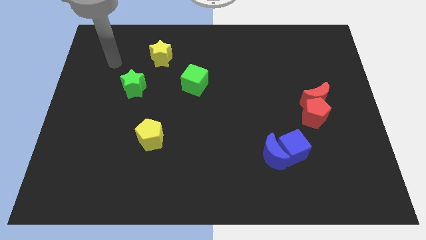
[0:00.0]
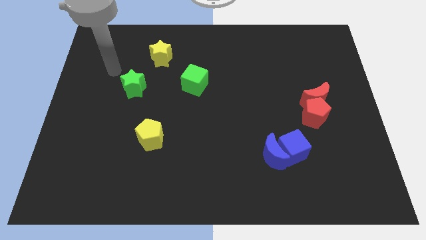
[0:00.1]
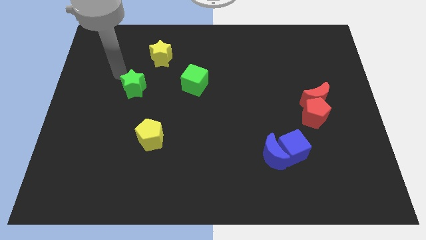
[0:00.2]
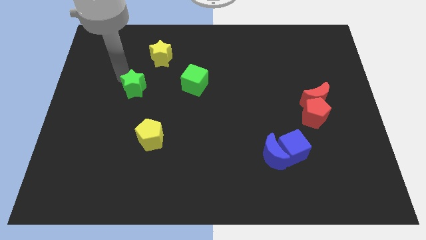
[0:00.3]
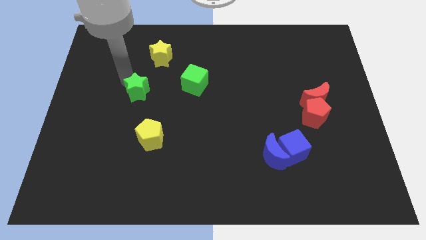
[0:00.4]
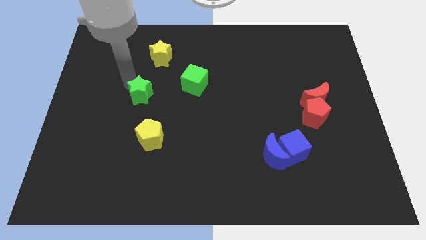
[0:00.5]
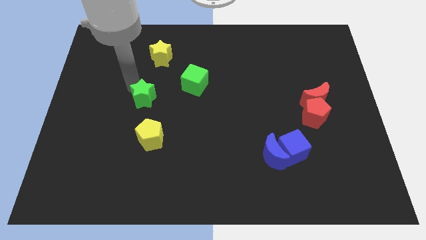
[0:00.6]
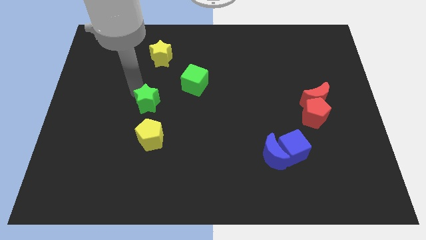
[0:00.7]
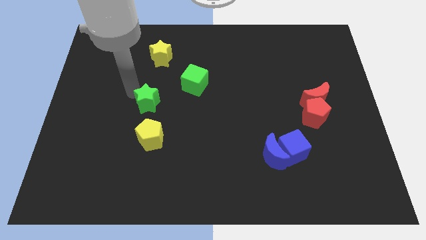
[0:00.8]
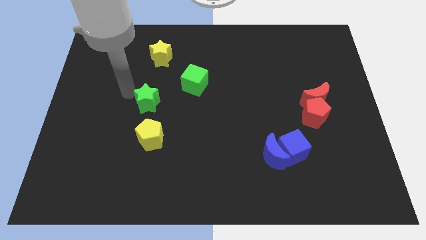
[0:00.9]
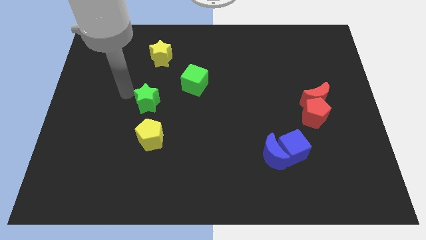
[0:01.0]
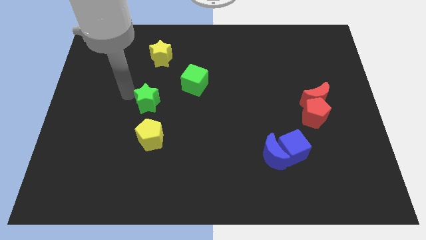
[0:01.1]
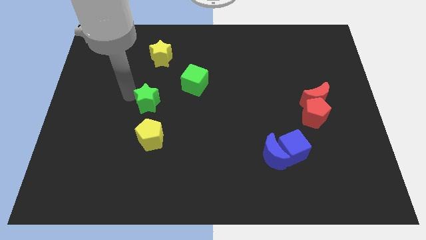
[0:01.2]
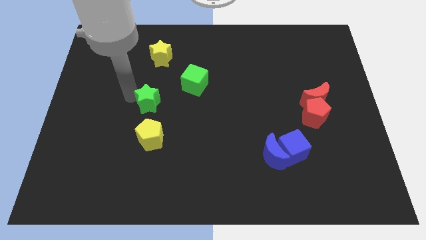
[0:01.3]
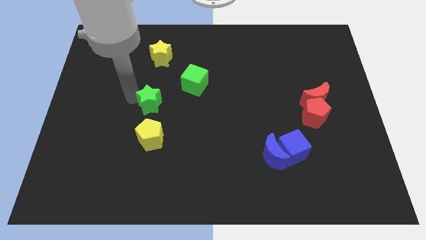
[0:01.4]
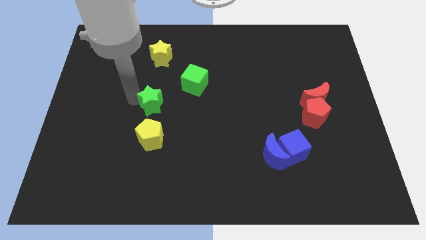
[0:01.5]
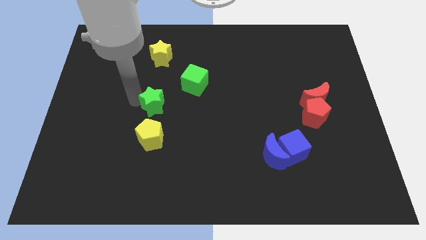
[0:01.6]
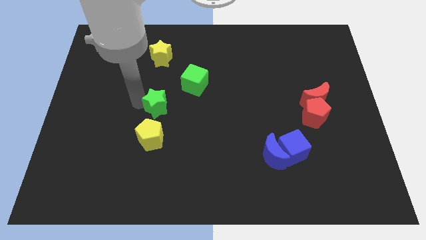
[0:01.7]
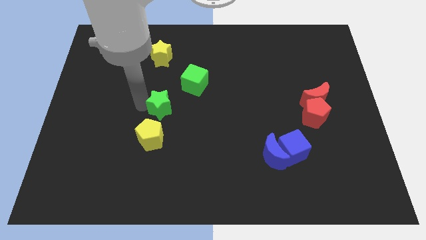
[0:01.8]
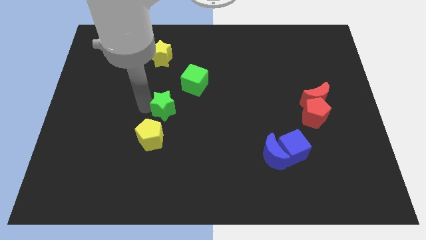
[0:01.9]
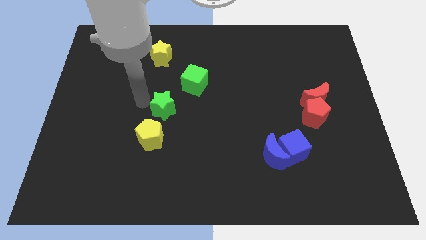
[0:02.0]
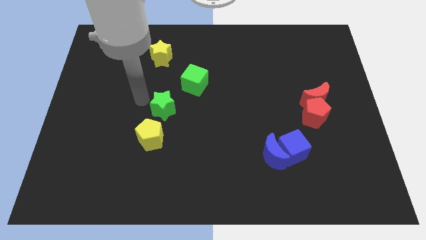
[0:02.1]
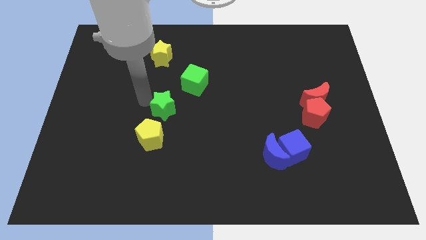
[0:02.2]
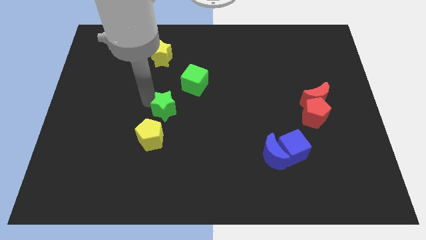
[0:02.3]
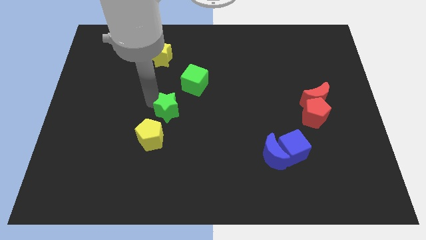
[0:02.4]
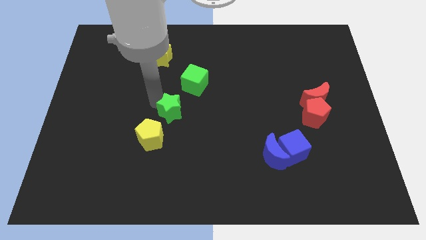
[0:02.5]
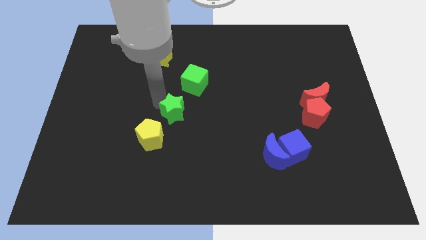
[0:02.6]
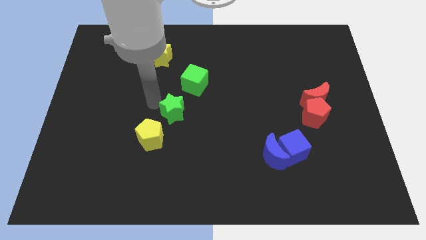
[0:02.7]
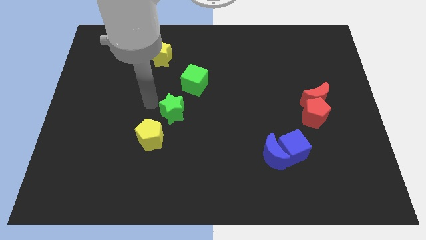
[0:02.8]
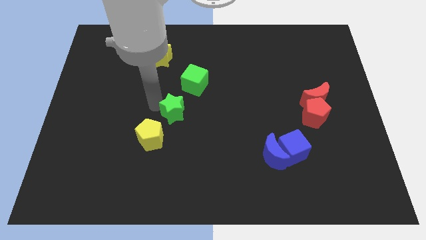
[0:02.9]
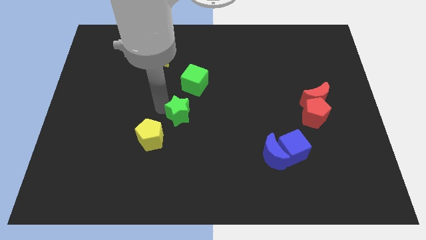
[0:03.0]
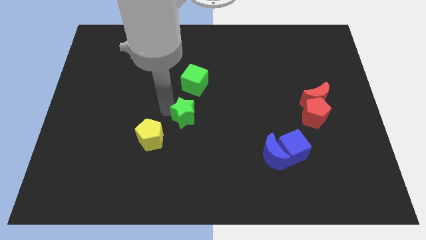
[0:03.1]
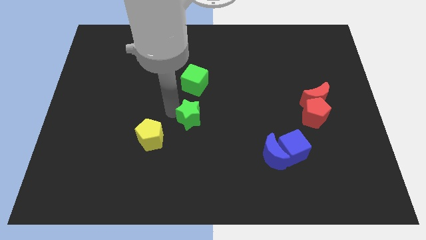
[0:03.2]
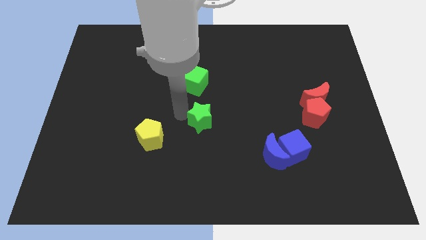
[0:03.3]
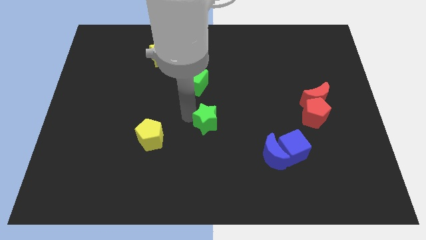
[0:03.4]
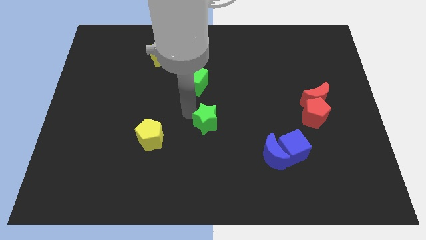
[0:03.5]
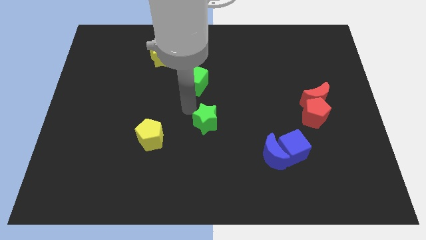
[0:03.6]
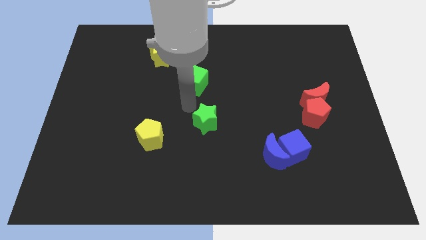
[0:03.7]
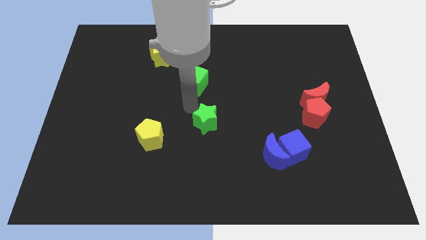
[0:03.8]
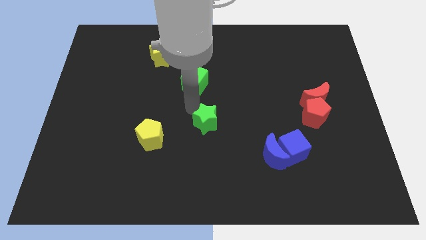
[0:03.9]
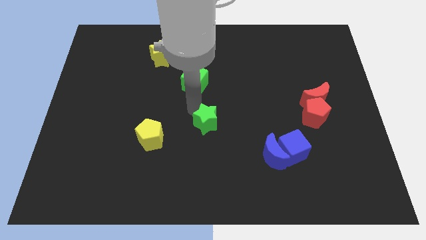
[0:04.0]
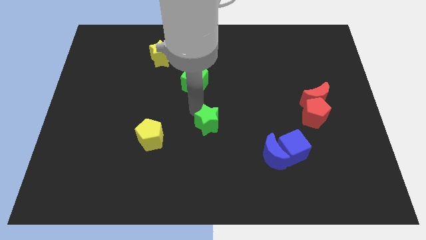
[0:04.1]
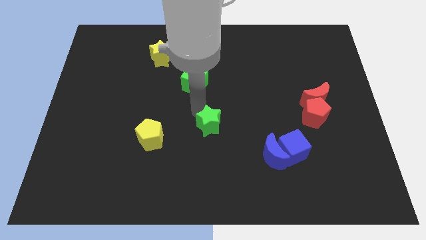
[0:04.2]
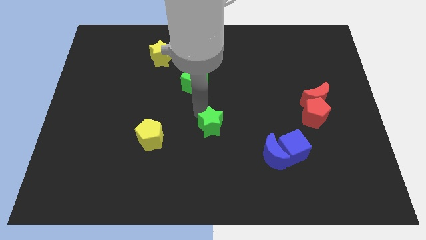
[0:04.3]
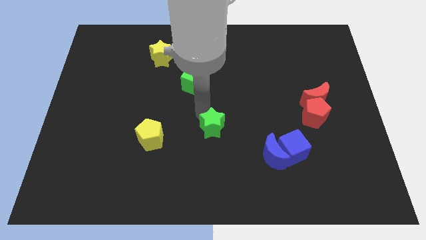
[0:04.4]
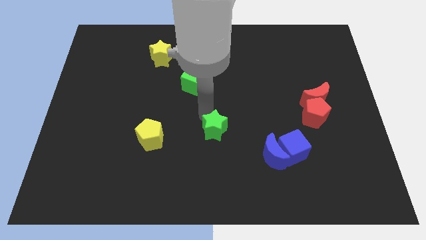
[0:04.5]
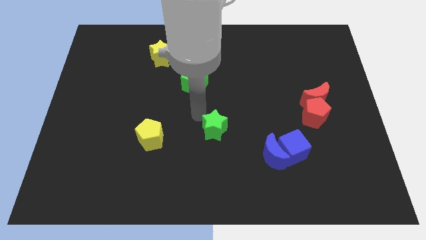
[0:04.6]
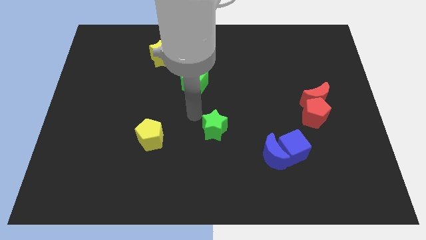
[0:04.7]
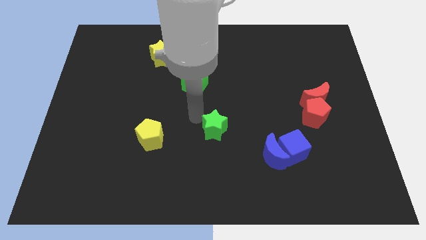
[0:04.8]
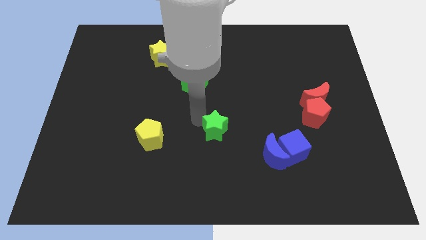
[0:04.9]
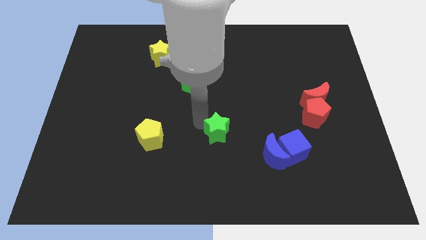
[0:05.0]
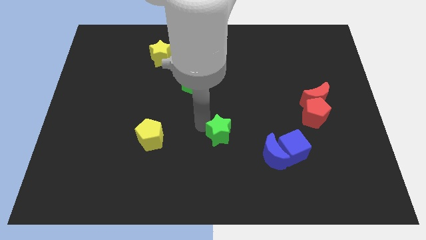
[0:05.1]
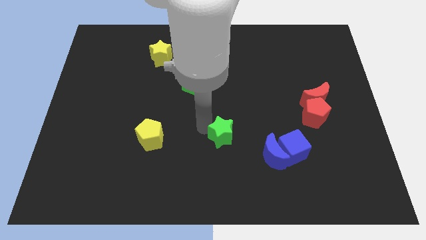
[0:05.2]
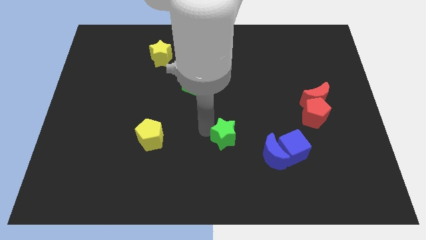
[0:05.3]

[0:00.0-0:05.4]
push the green star to the left side of the blue cube

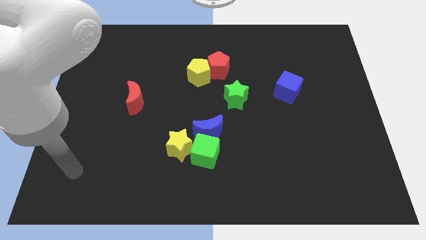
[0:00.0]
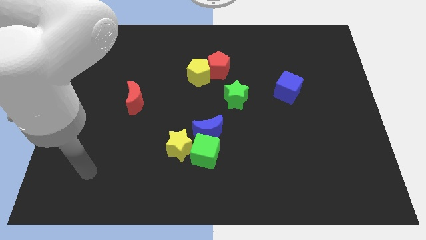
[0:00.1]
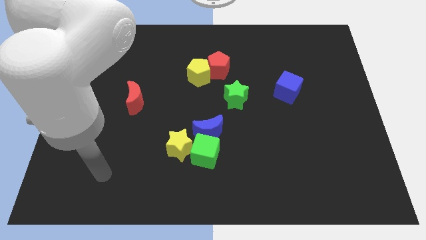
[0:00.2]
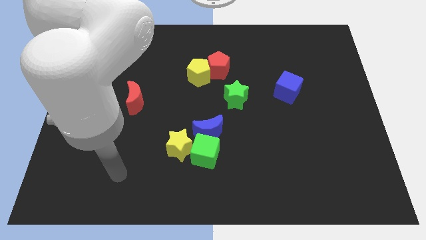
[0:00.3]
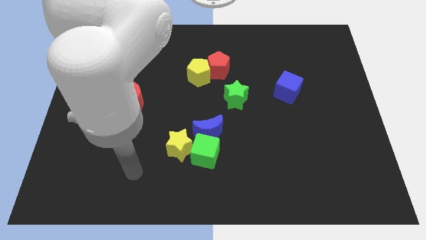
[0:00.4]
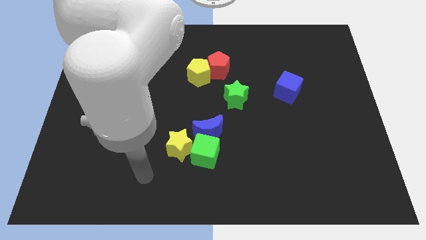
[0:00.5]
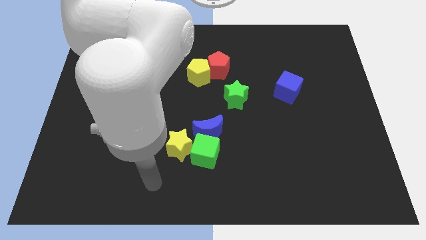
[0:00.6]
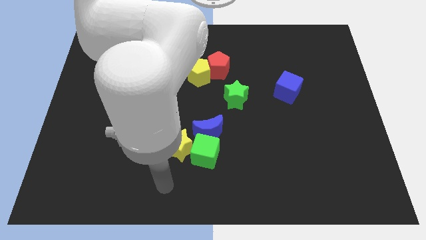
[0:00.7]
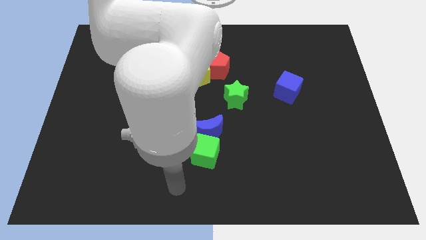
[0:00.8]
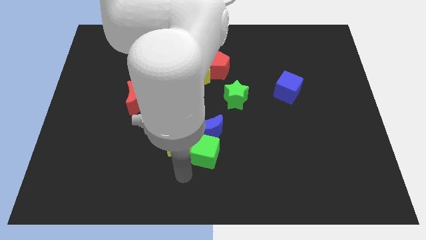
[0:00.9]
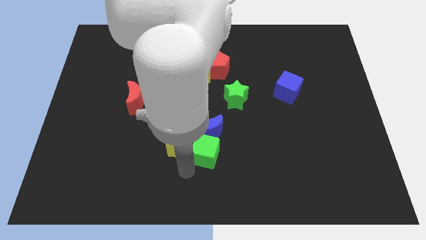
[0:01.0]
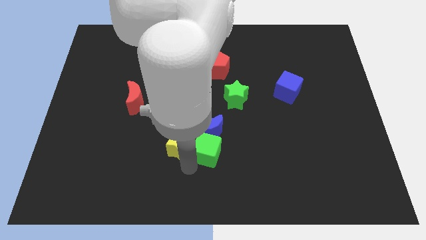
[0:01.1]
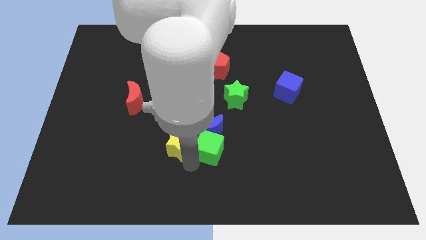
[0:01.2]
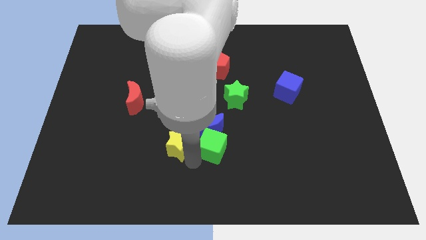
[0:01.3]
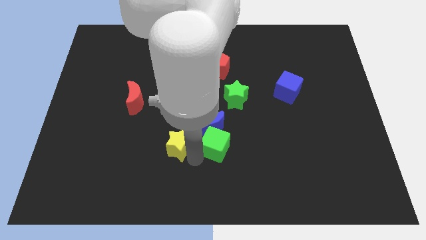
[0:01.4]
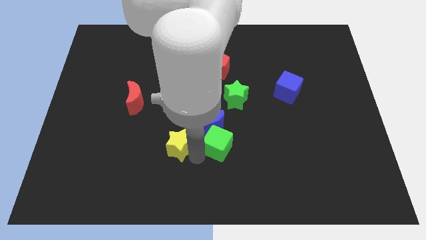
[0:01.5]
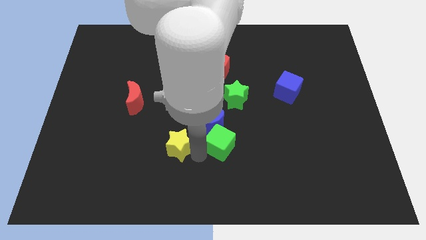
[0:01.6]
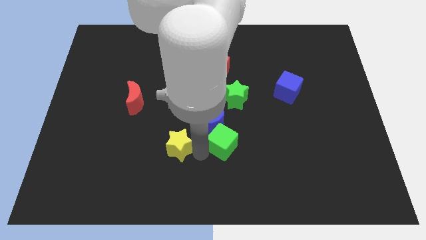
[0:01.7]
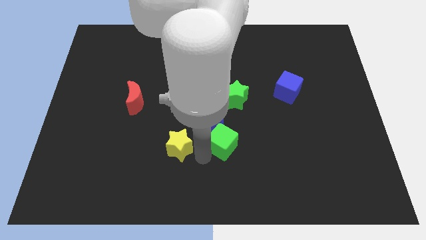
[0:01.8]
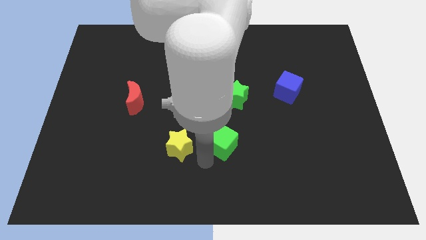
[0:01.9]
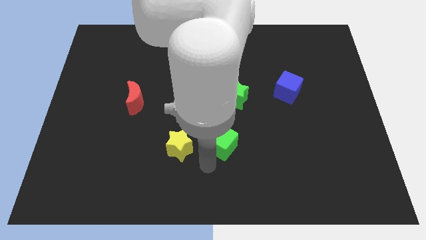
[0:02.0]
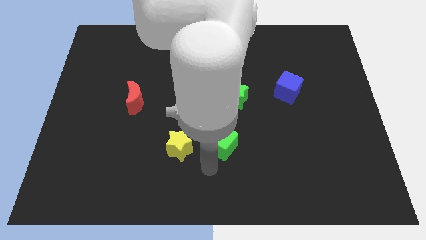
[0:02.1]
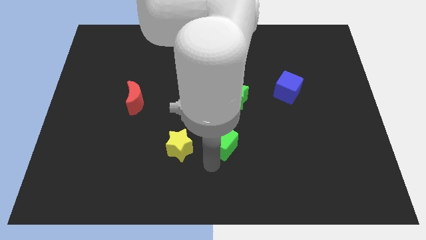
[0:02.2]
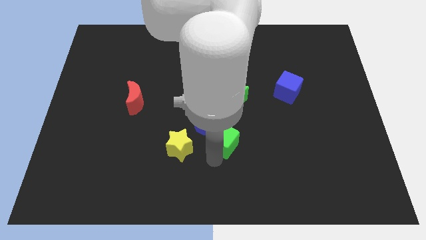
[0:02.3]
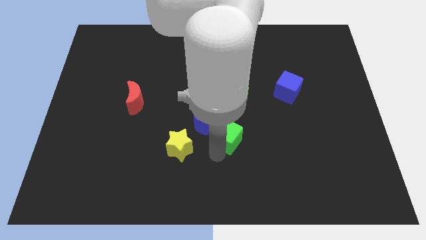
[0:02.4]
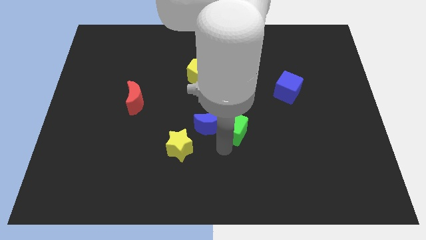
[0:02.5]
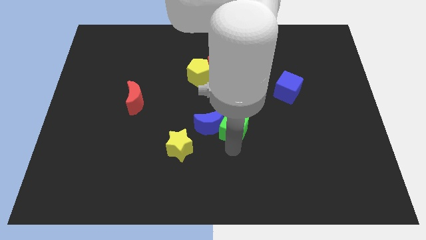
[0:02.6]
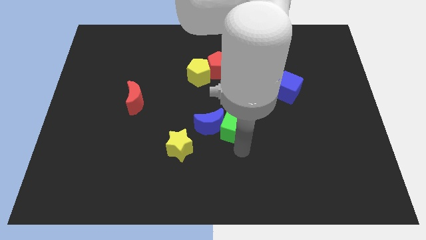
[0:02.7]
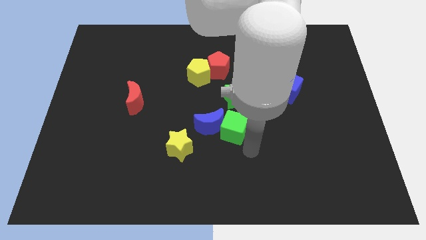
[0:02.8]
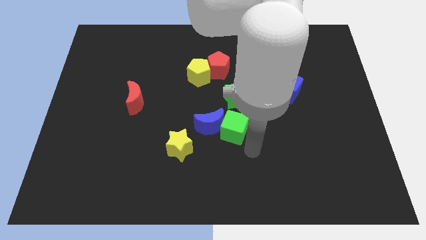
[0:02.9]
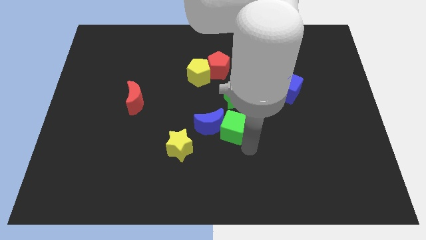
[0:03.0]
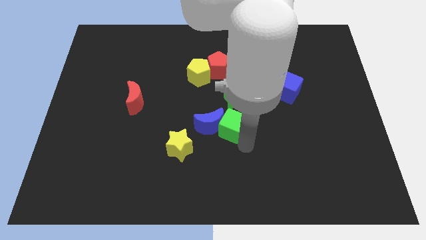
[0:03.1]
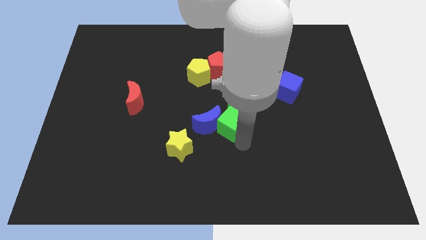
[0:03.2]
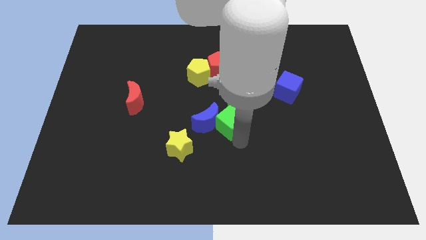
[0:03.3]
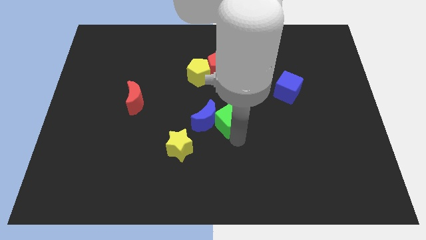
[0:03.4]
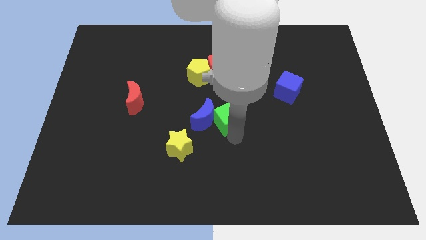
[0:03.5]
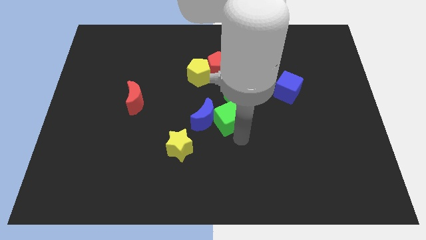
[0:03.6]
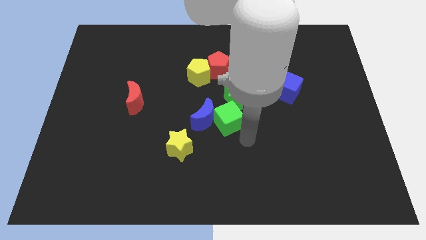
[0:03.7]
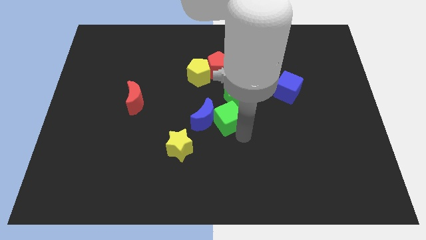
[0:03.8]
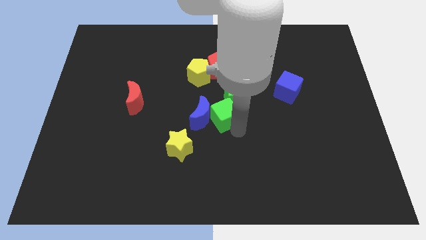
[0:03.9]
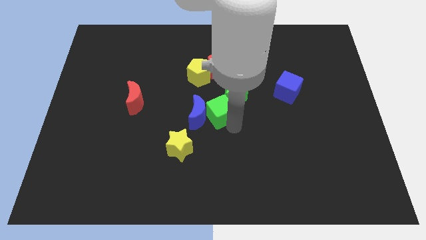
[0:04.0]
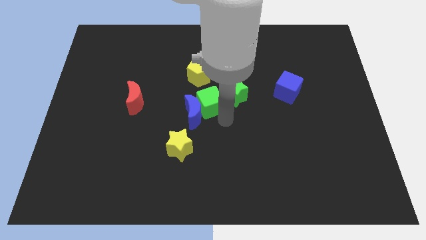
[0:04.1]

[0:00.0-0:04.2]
push the green cube above the blue moon
